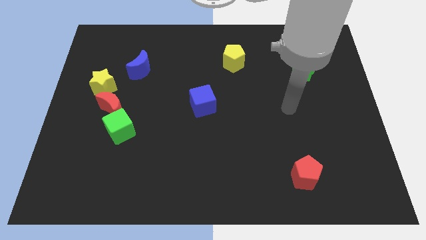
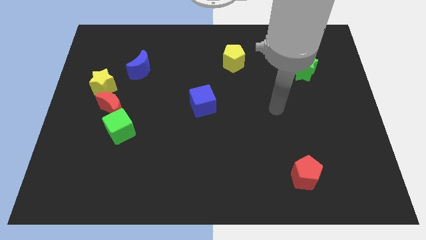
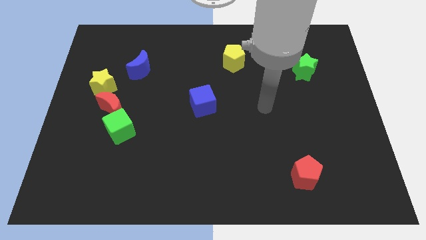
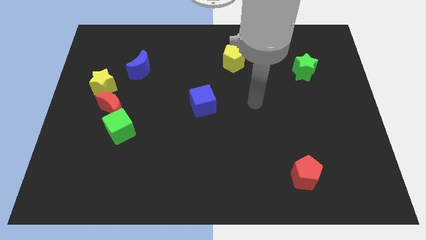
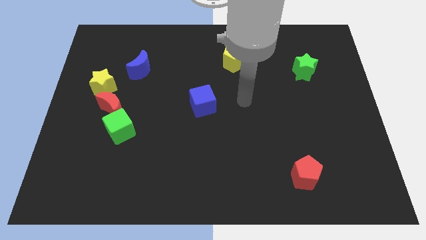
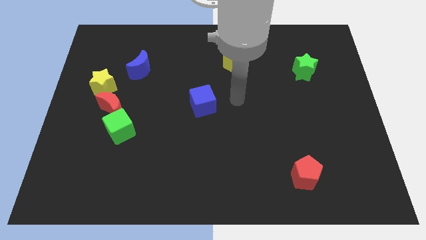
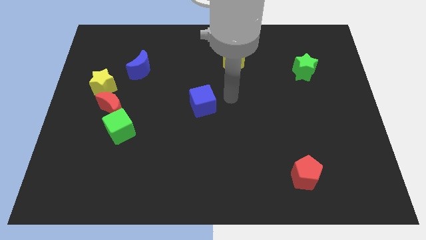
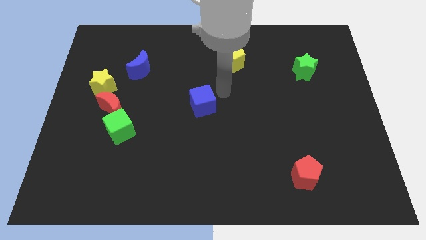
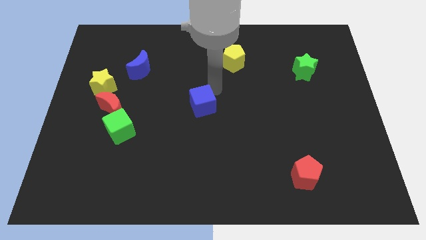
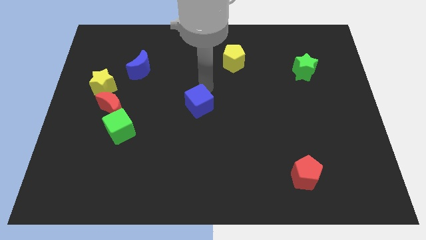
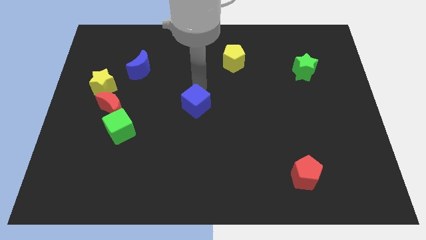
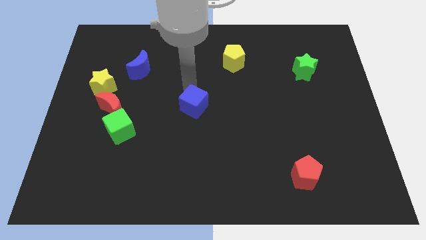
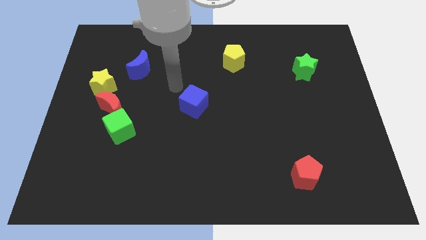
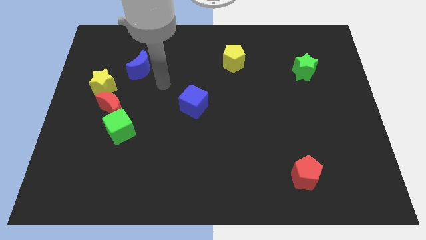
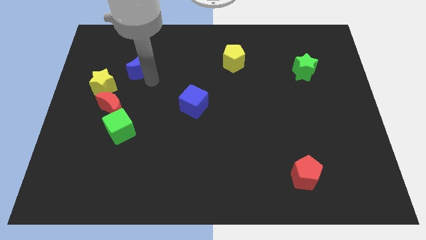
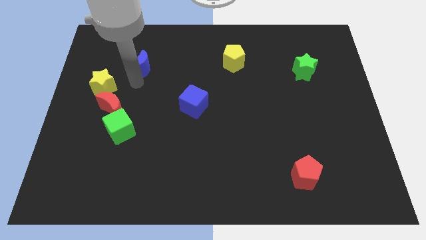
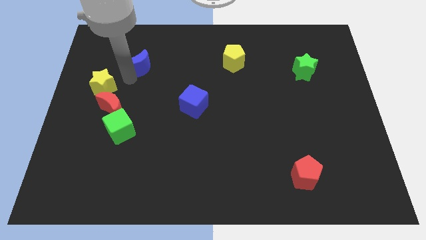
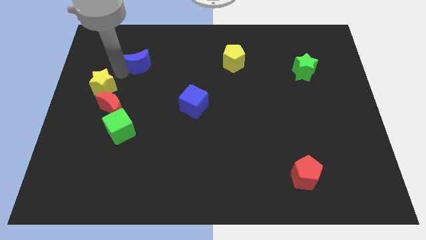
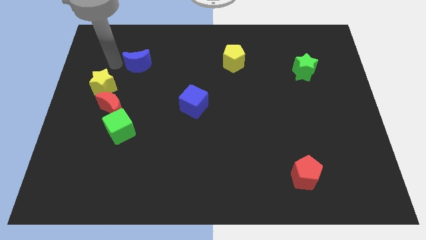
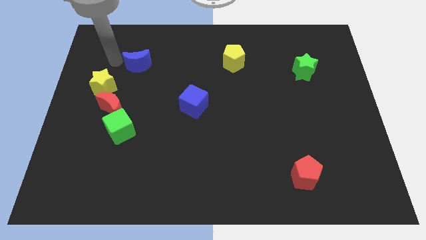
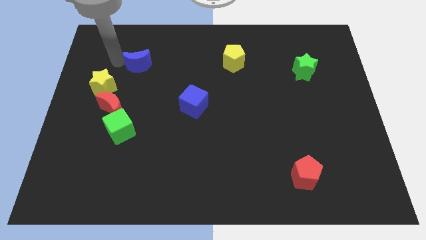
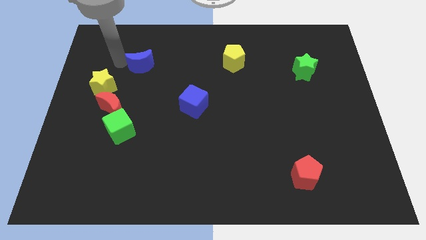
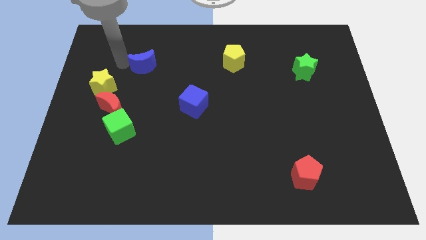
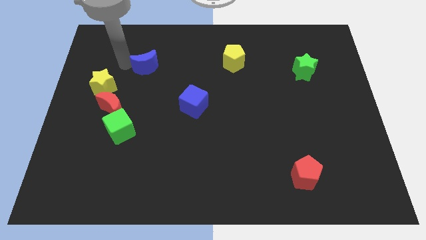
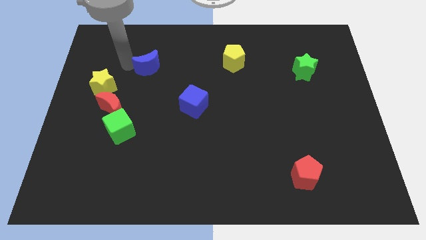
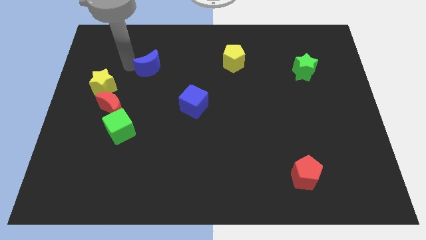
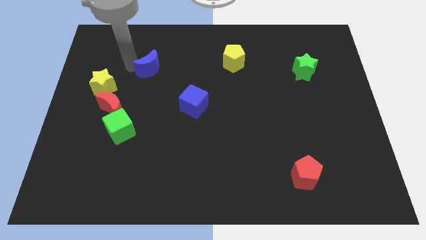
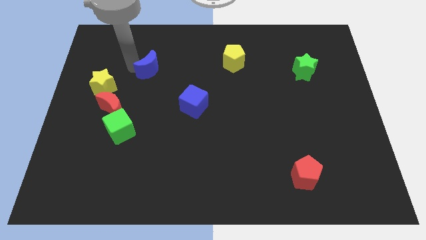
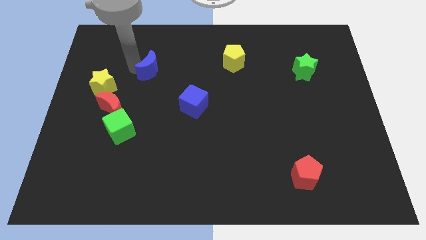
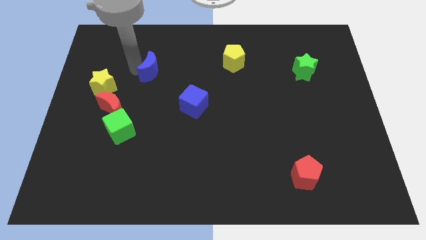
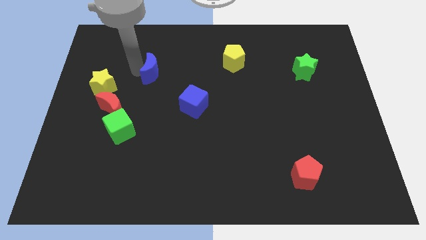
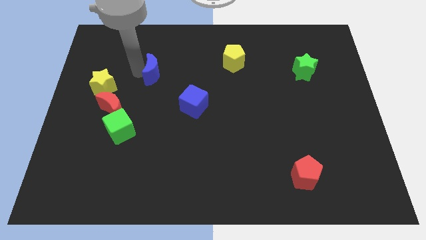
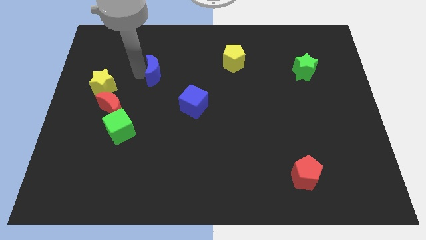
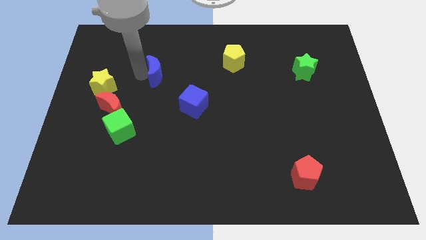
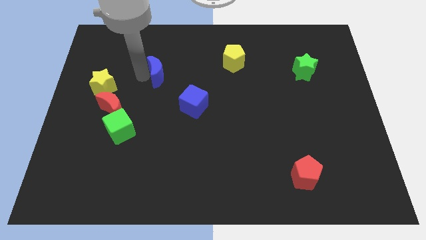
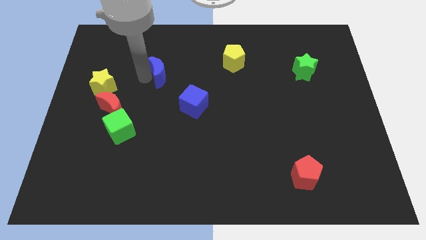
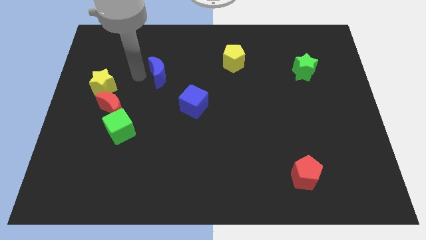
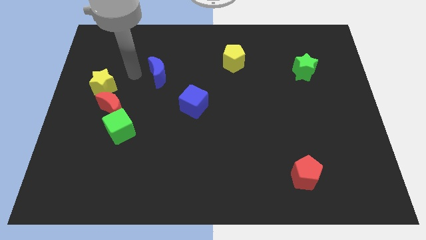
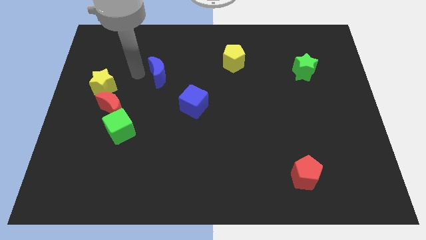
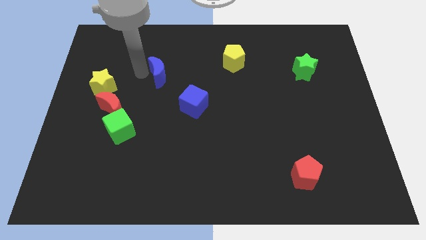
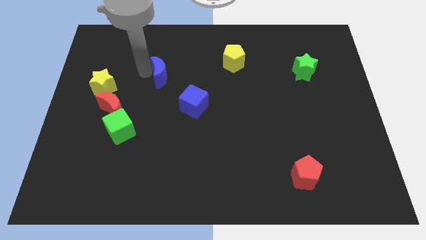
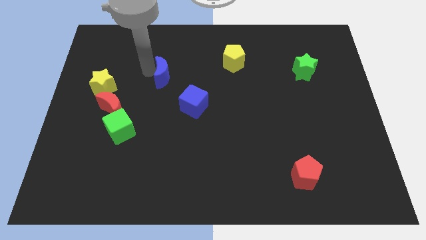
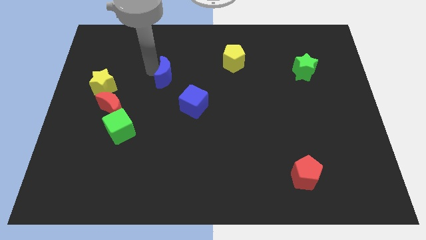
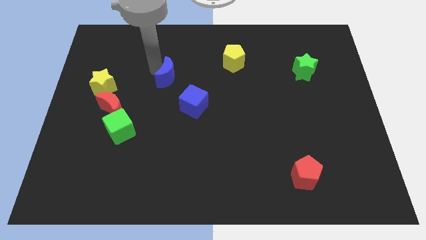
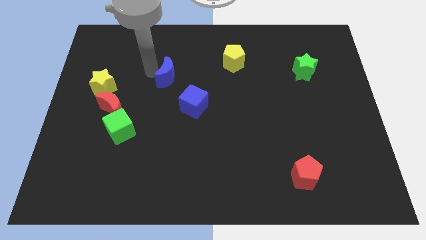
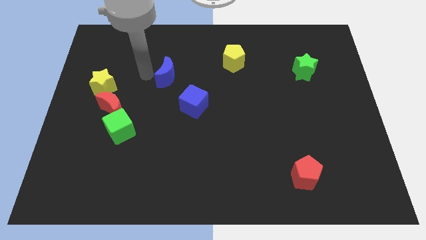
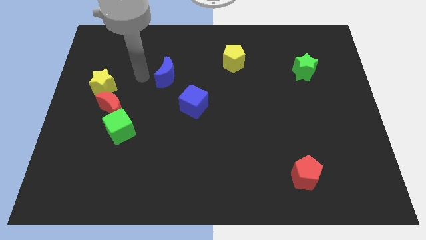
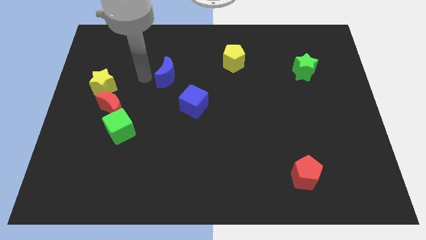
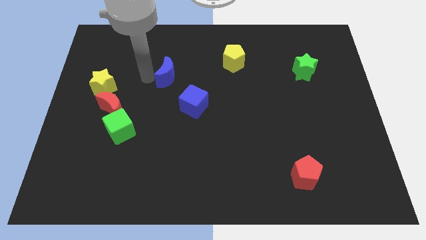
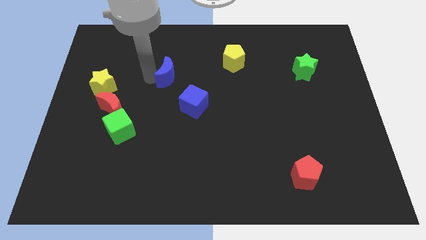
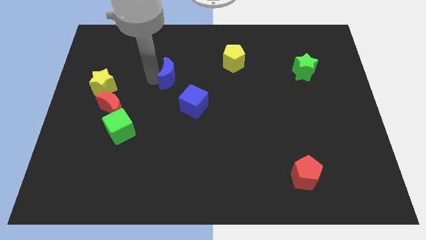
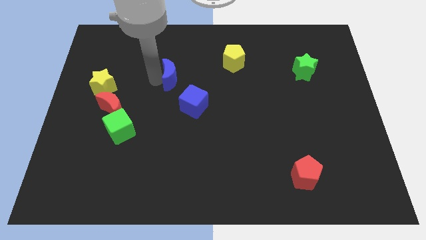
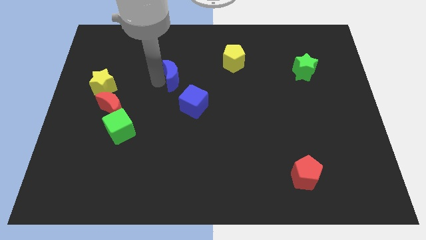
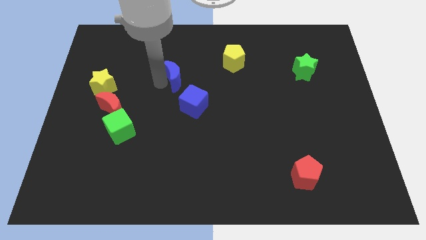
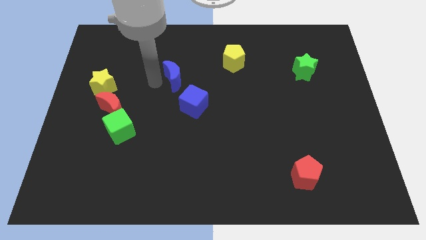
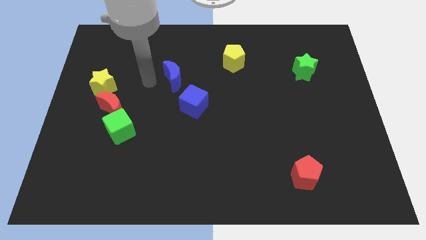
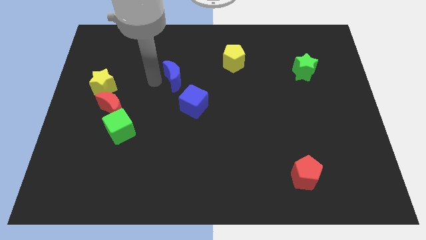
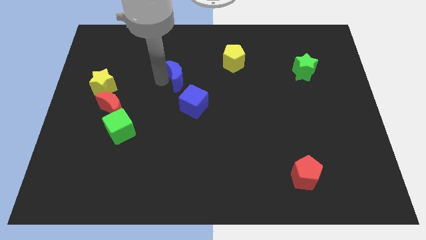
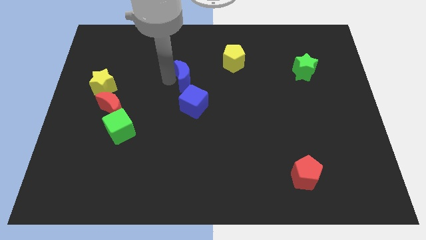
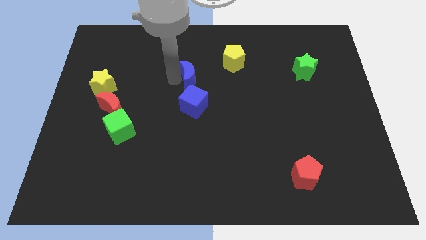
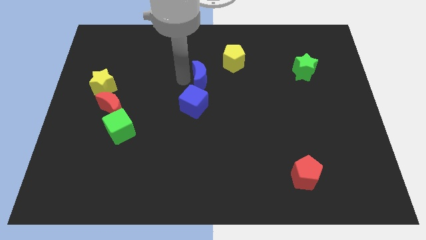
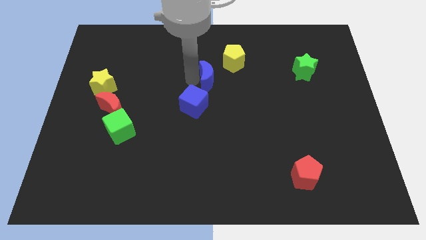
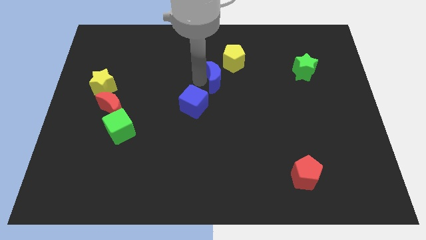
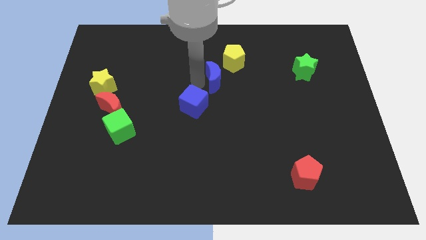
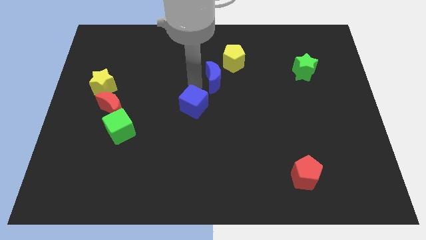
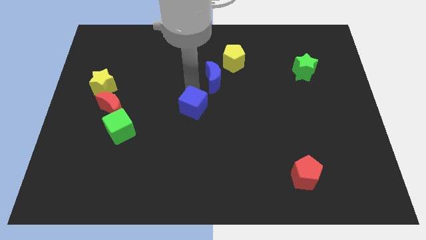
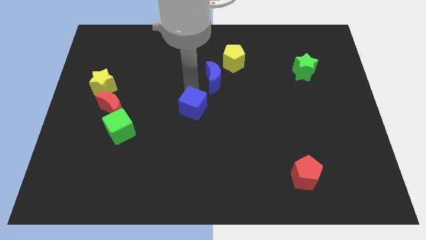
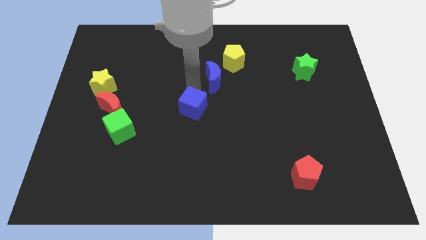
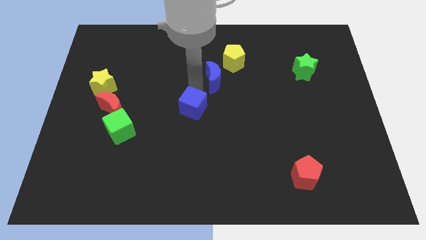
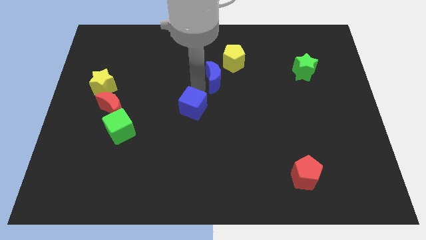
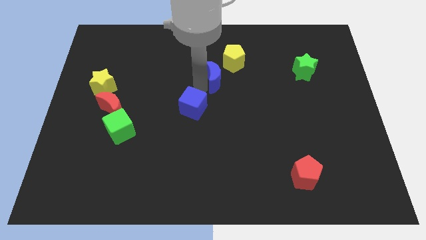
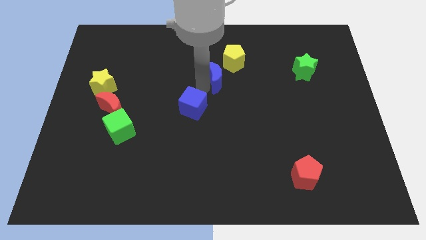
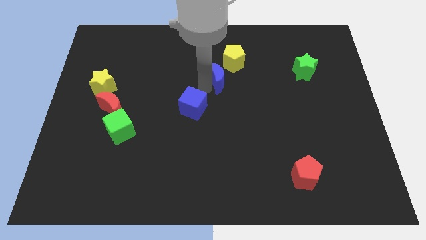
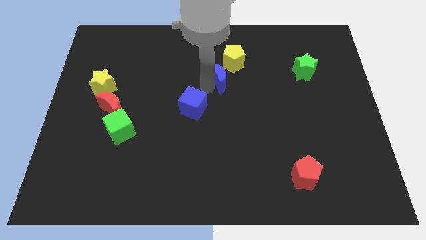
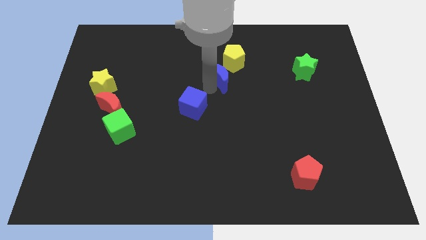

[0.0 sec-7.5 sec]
slide the blue moon right

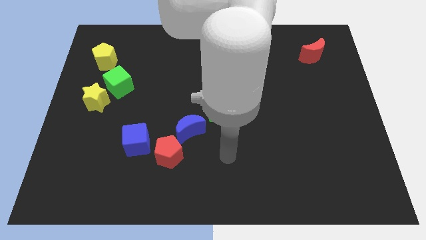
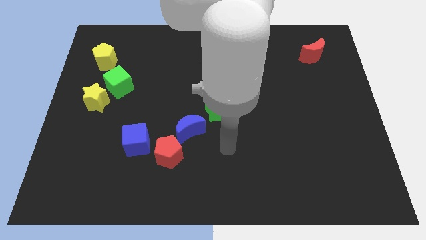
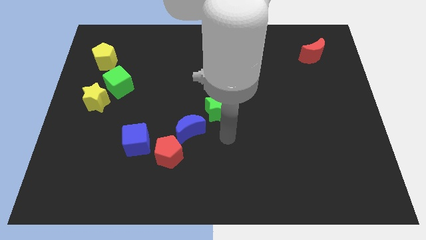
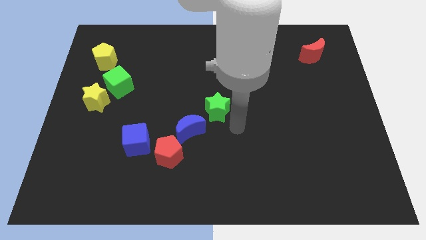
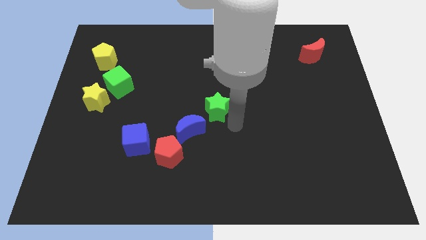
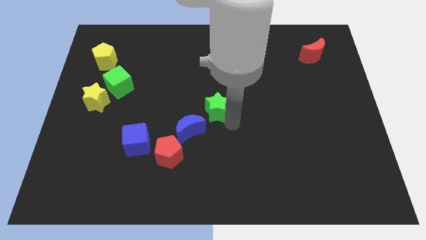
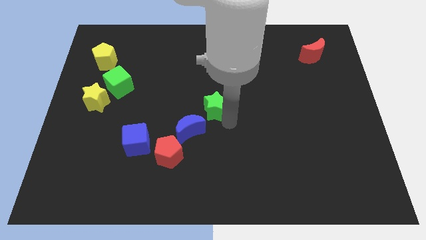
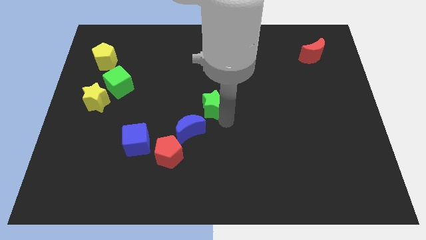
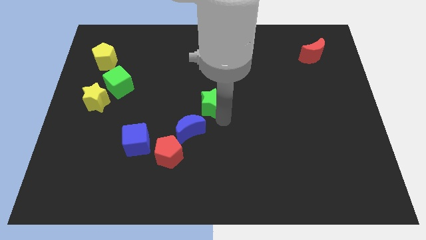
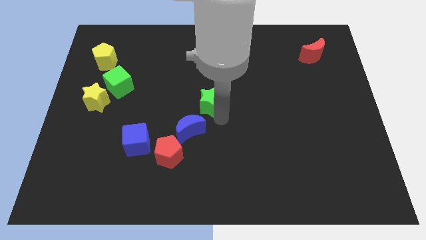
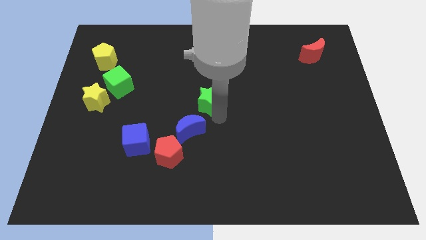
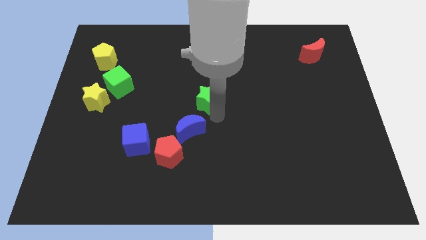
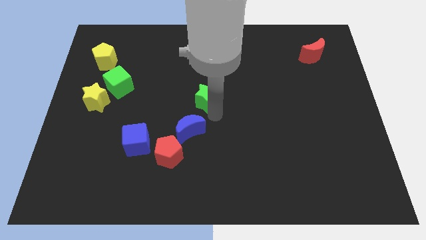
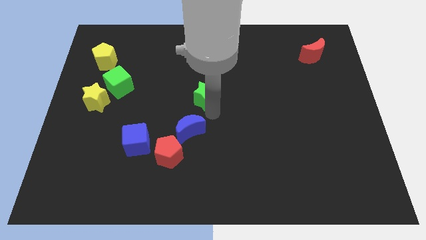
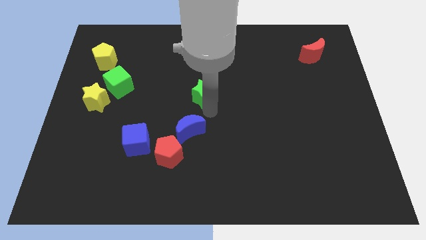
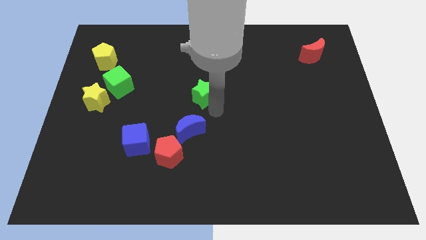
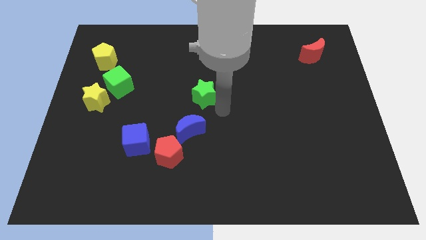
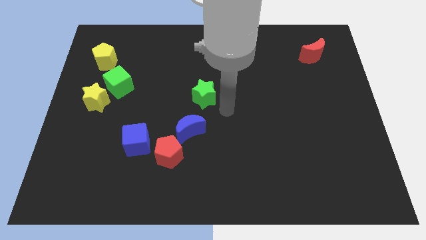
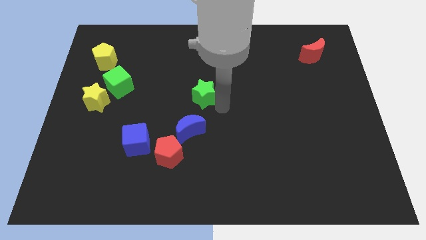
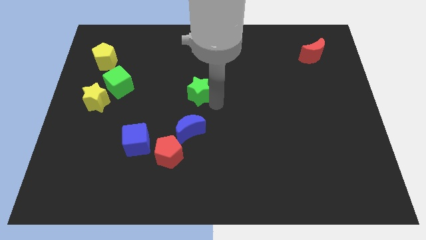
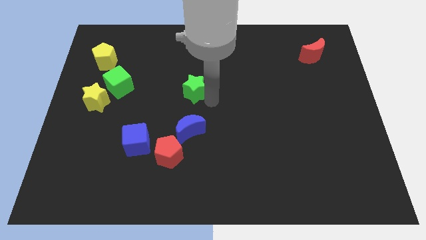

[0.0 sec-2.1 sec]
push the green star upwards and then left somewhat
